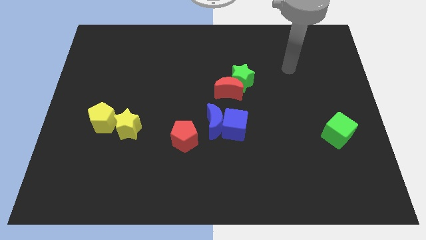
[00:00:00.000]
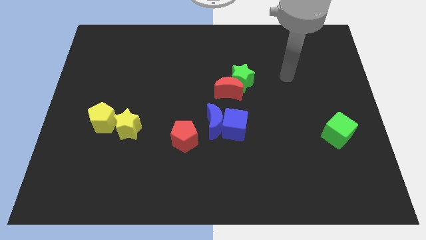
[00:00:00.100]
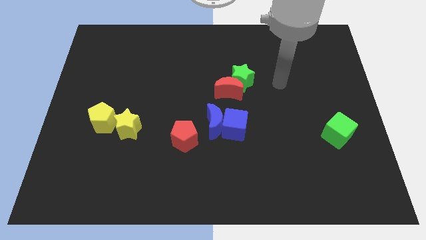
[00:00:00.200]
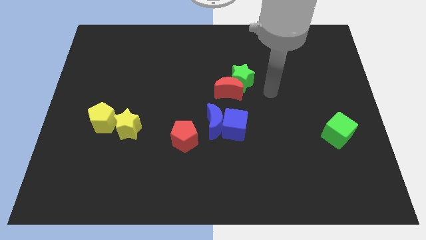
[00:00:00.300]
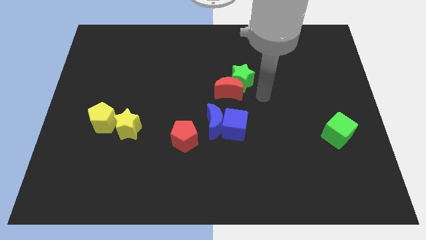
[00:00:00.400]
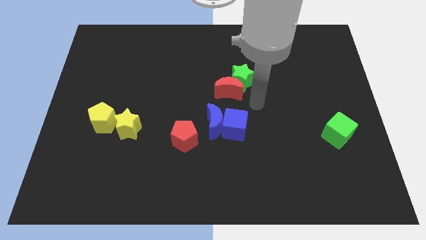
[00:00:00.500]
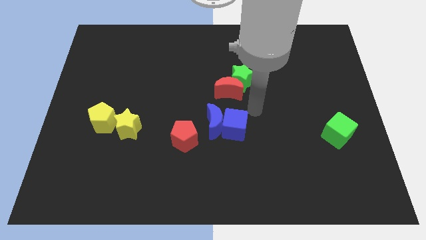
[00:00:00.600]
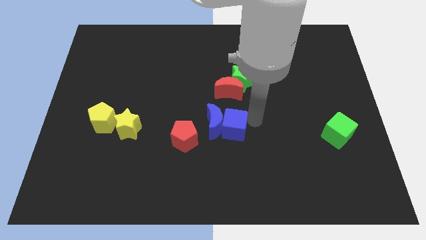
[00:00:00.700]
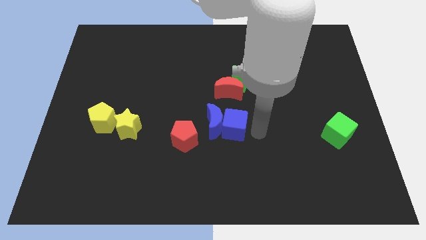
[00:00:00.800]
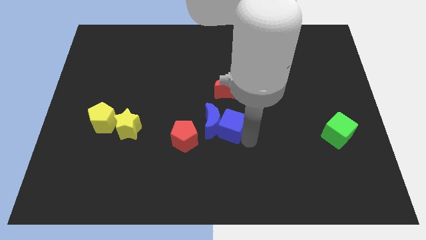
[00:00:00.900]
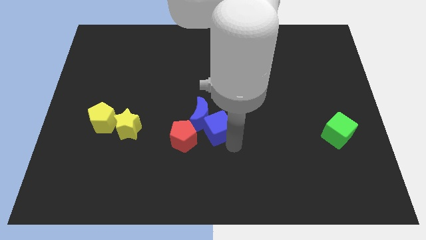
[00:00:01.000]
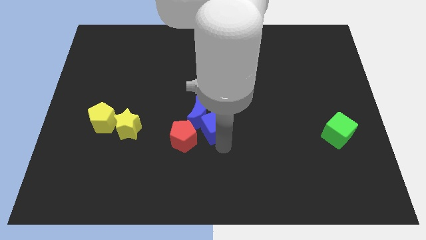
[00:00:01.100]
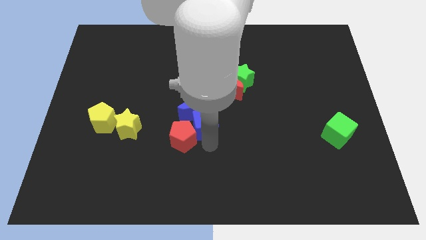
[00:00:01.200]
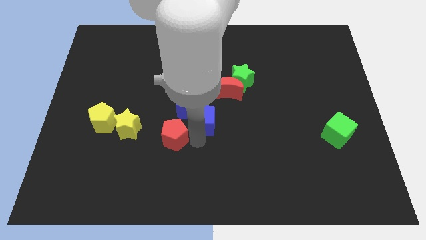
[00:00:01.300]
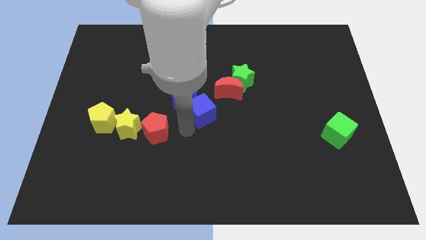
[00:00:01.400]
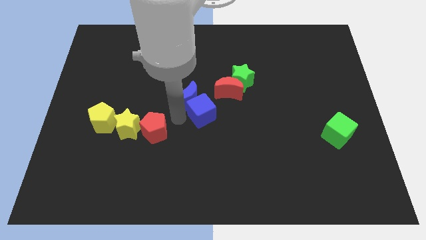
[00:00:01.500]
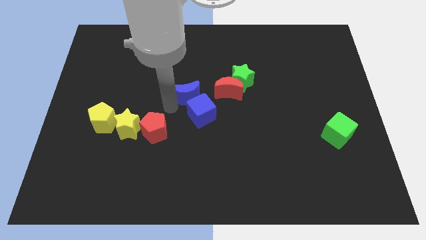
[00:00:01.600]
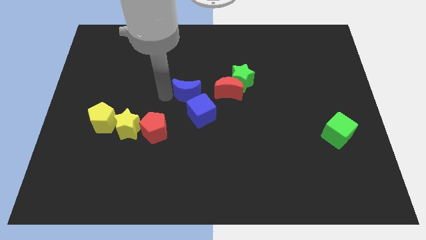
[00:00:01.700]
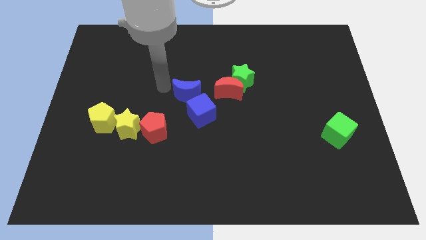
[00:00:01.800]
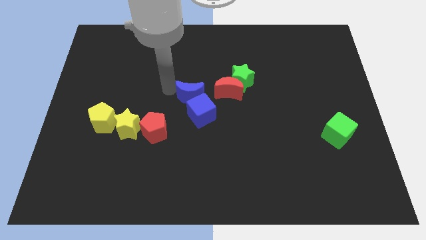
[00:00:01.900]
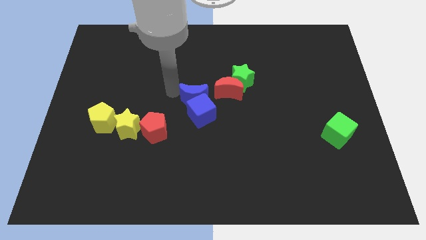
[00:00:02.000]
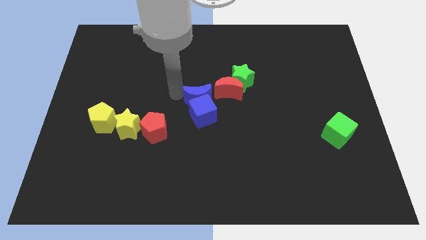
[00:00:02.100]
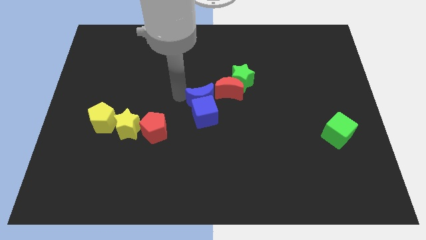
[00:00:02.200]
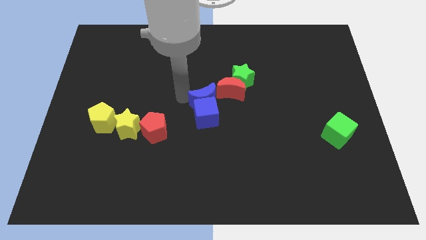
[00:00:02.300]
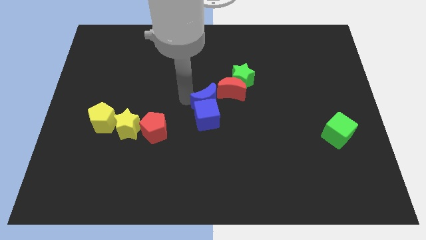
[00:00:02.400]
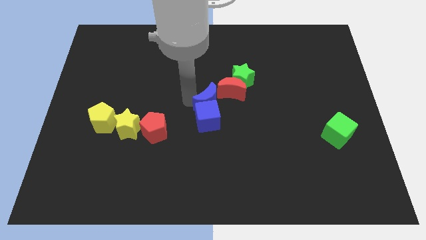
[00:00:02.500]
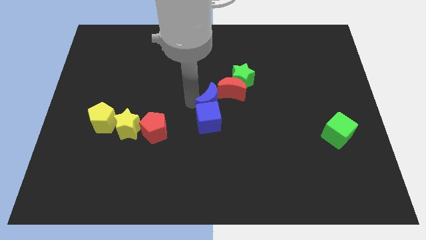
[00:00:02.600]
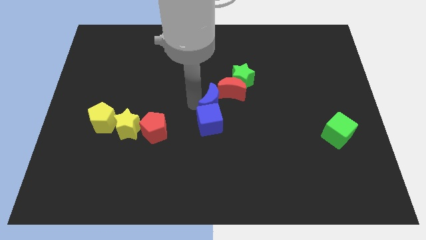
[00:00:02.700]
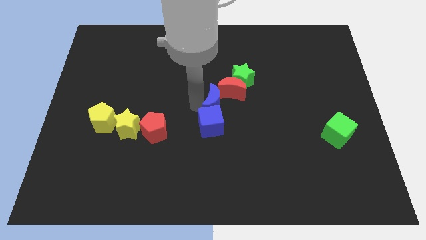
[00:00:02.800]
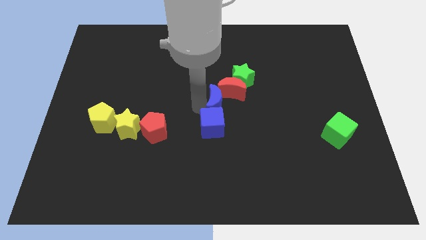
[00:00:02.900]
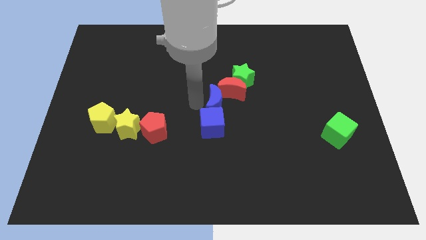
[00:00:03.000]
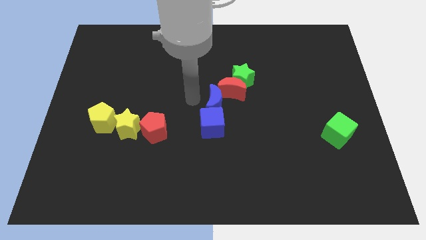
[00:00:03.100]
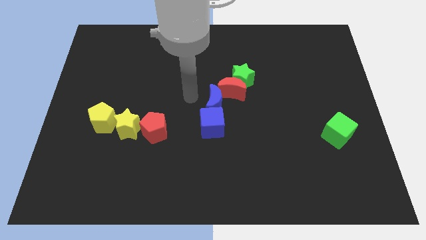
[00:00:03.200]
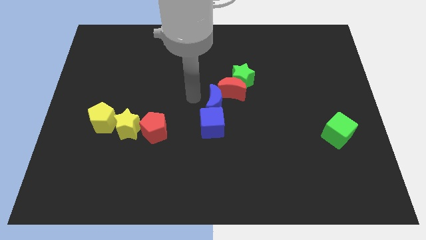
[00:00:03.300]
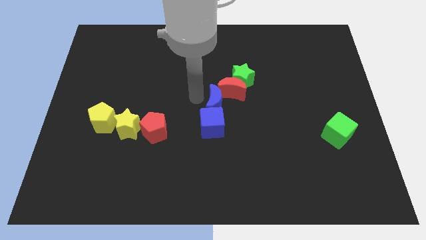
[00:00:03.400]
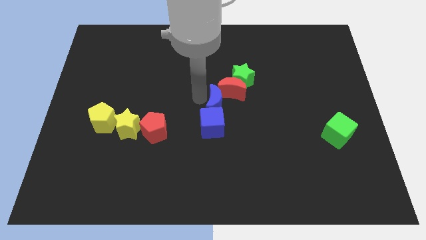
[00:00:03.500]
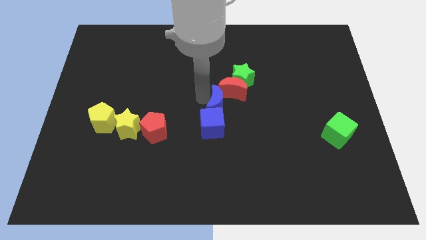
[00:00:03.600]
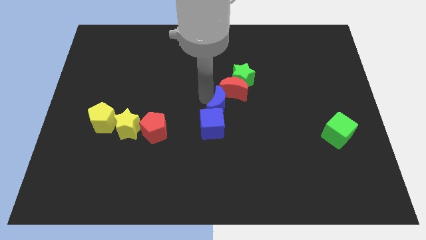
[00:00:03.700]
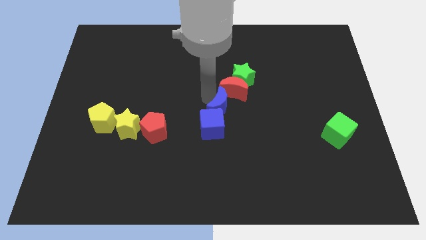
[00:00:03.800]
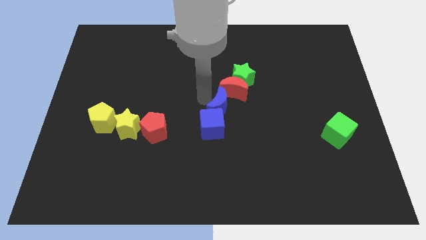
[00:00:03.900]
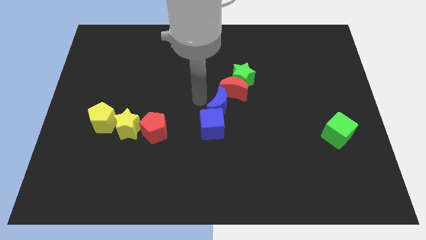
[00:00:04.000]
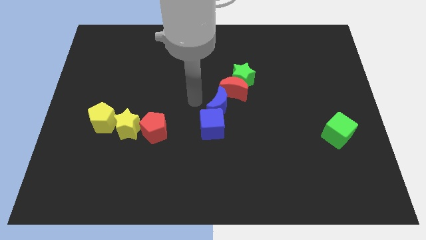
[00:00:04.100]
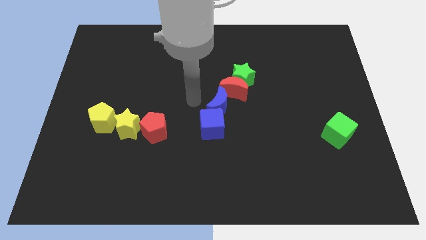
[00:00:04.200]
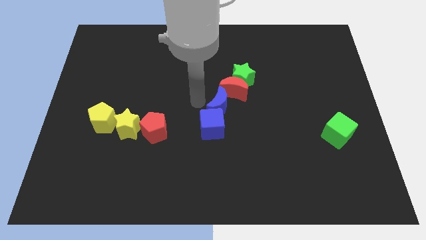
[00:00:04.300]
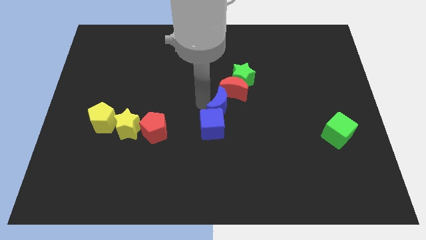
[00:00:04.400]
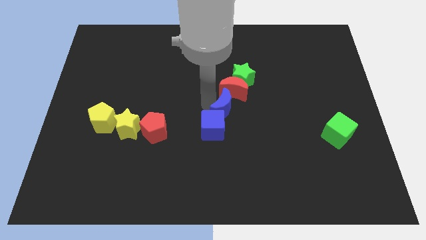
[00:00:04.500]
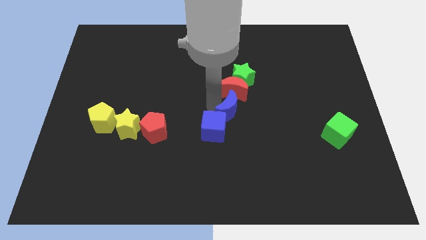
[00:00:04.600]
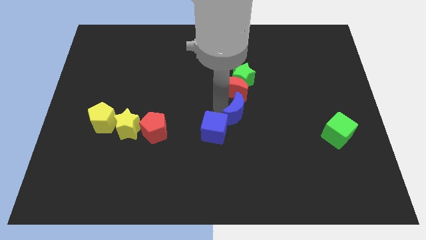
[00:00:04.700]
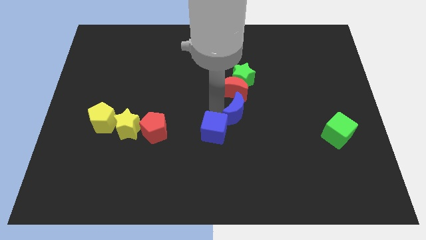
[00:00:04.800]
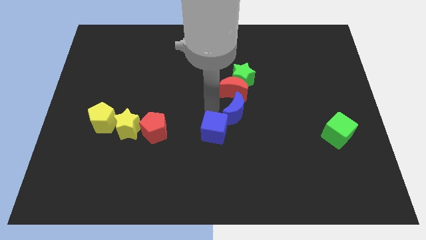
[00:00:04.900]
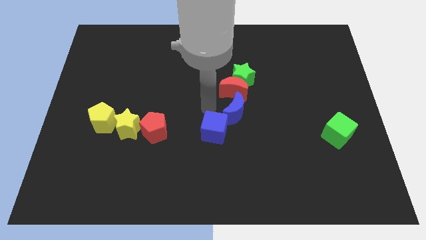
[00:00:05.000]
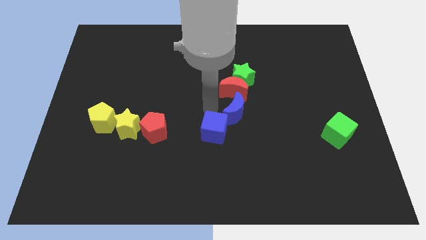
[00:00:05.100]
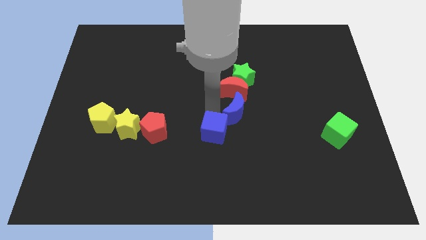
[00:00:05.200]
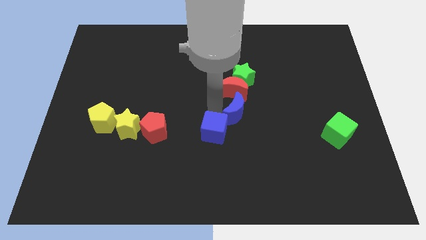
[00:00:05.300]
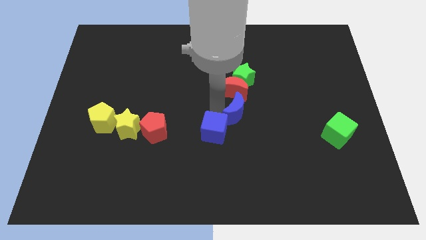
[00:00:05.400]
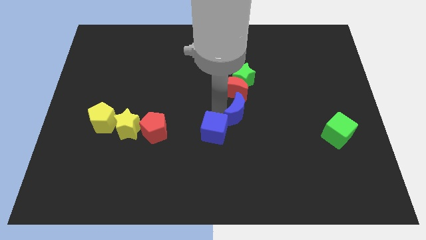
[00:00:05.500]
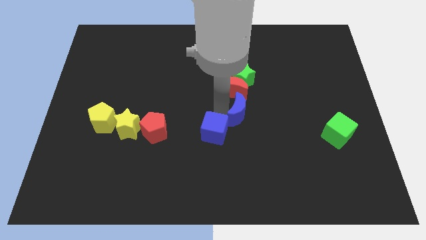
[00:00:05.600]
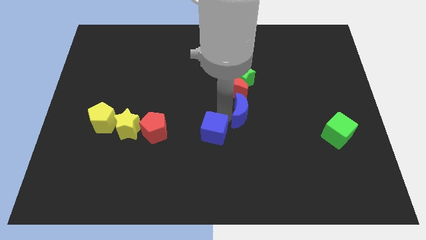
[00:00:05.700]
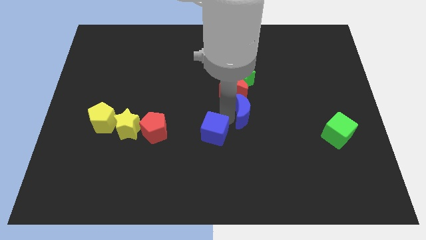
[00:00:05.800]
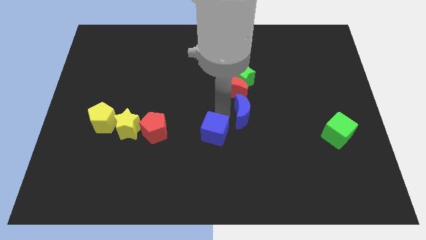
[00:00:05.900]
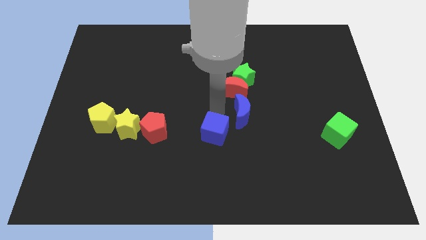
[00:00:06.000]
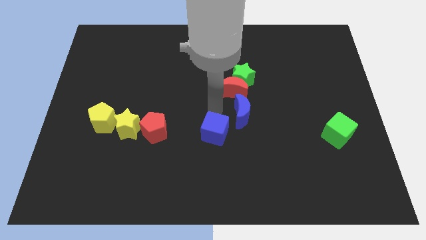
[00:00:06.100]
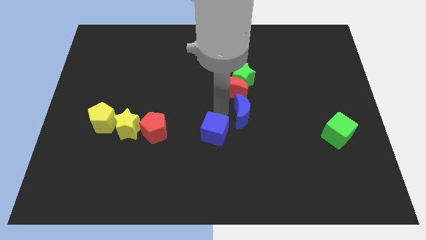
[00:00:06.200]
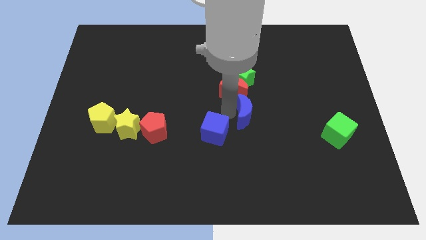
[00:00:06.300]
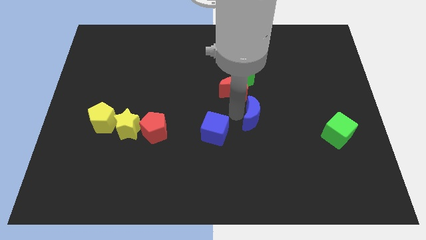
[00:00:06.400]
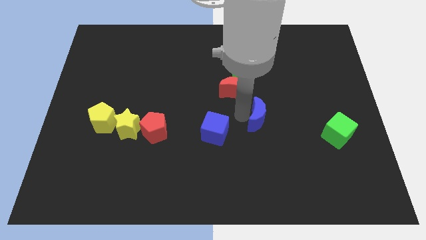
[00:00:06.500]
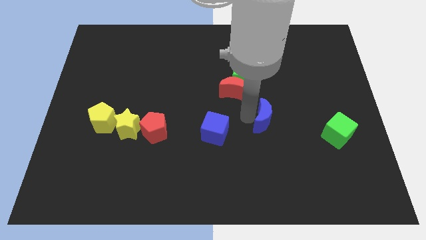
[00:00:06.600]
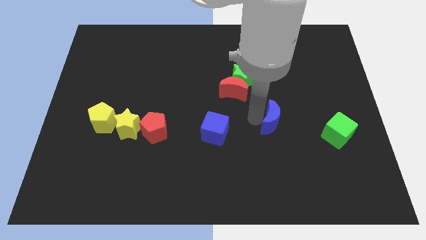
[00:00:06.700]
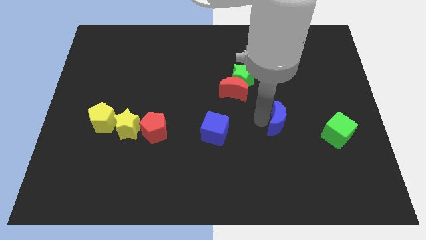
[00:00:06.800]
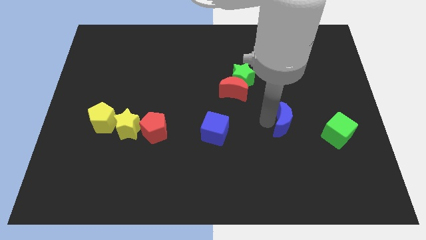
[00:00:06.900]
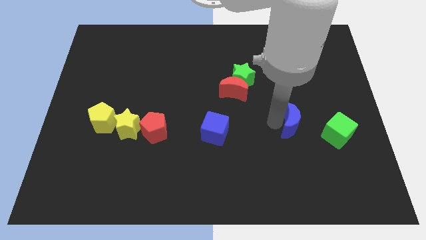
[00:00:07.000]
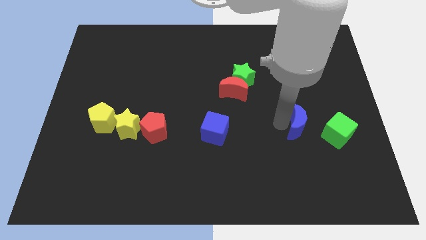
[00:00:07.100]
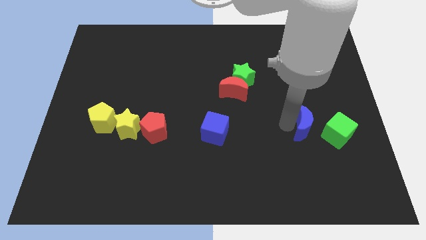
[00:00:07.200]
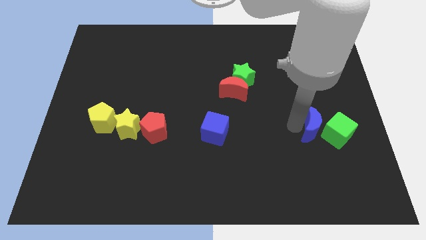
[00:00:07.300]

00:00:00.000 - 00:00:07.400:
push the blue moon next to the green cube
